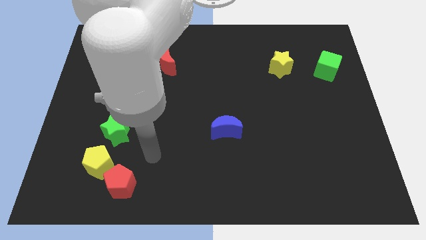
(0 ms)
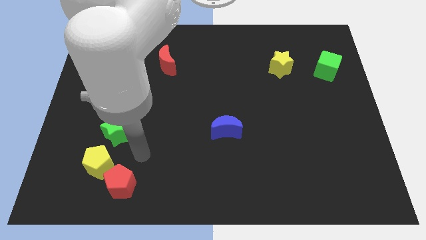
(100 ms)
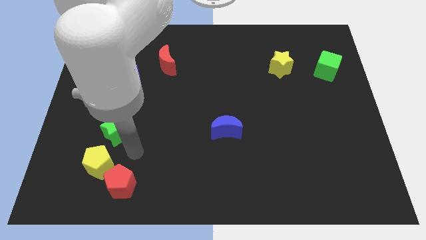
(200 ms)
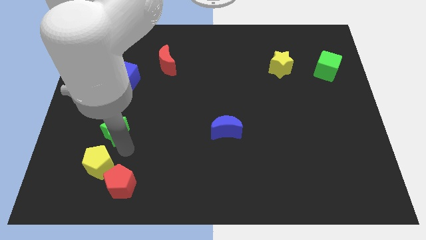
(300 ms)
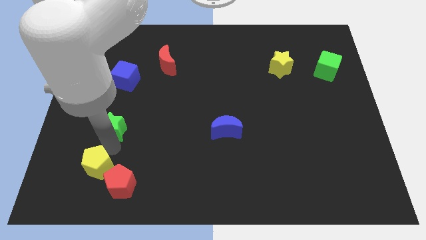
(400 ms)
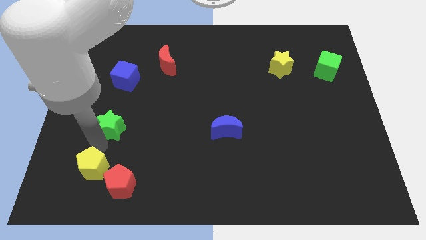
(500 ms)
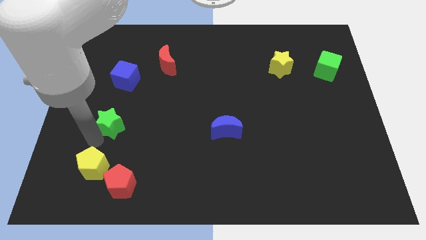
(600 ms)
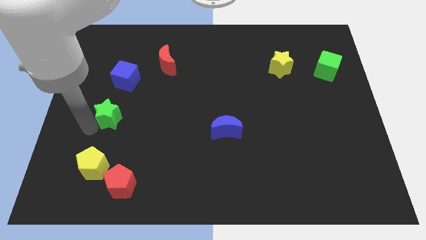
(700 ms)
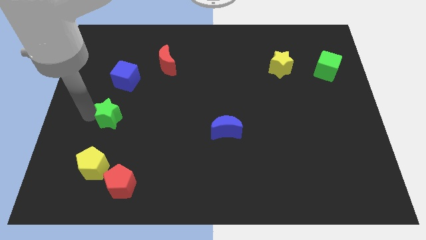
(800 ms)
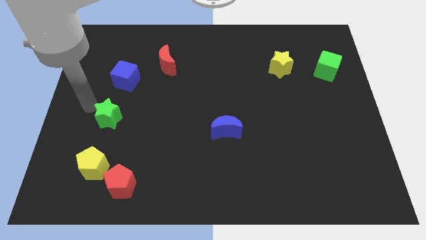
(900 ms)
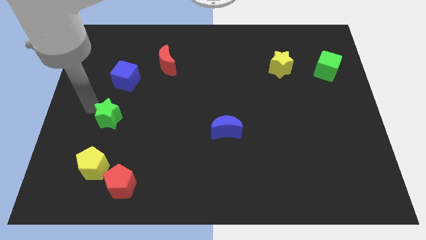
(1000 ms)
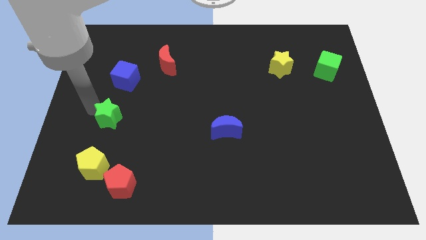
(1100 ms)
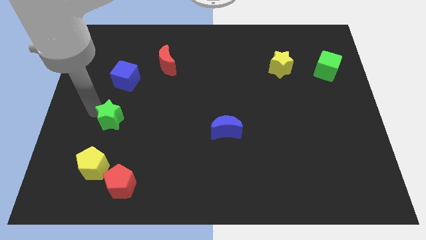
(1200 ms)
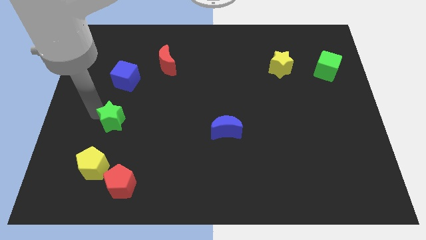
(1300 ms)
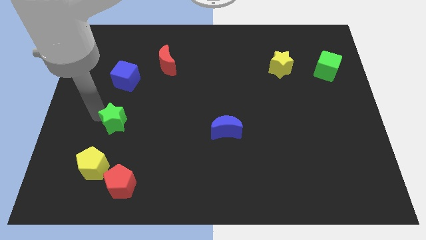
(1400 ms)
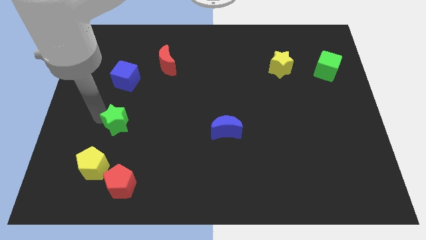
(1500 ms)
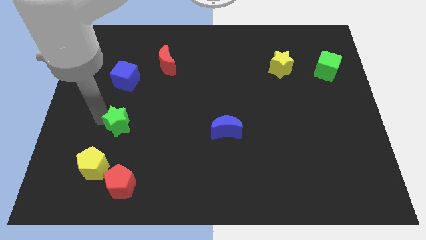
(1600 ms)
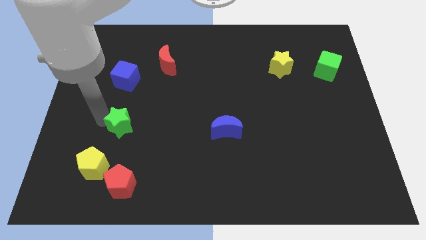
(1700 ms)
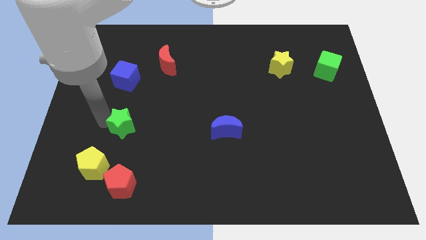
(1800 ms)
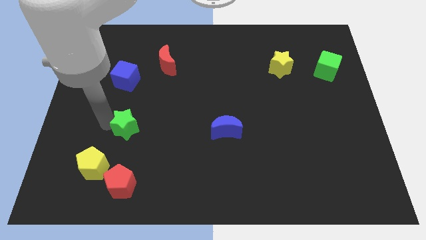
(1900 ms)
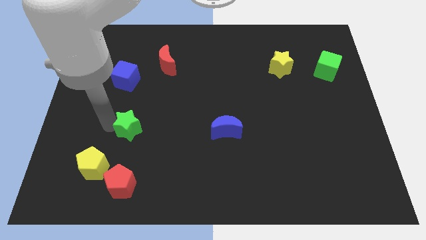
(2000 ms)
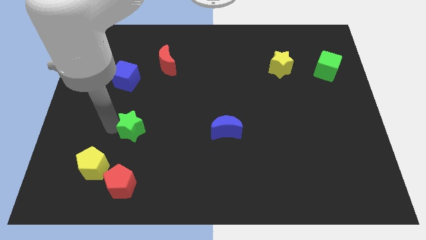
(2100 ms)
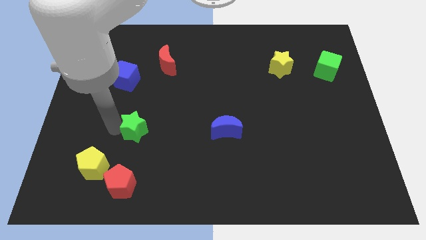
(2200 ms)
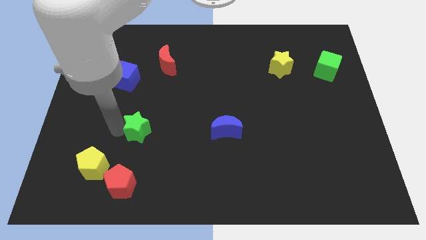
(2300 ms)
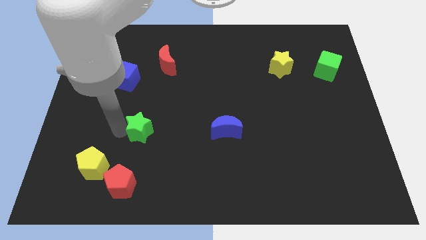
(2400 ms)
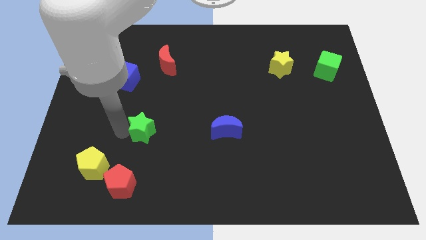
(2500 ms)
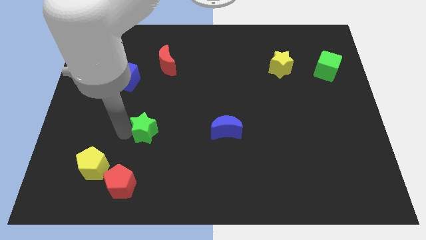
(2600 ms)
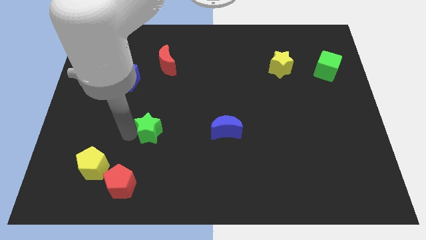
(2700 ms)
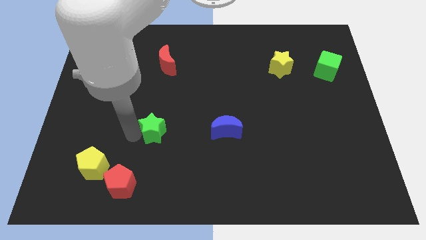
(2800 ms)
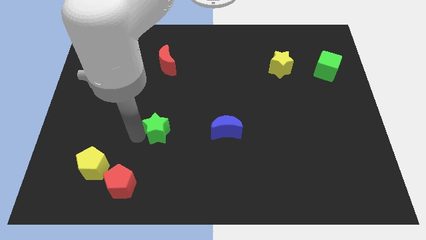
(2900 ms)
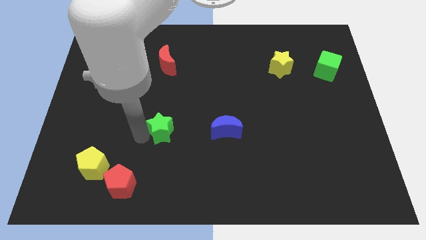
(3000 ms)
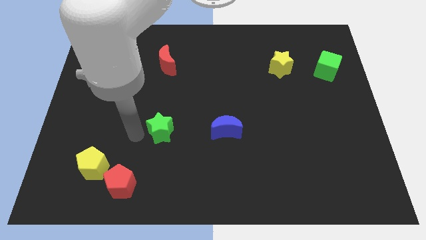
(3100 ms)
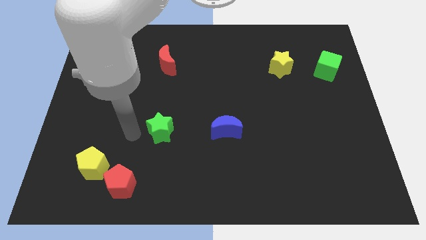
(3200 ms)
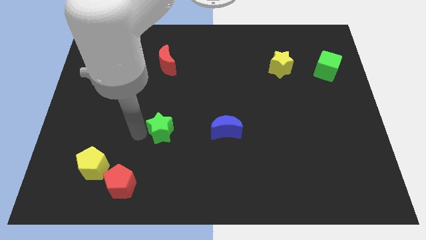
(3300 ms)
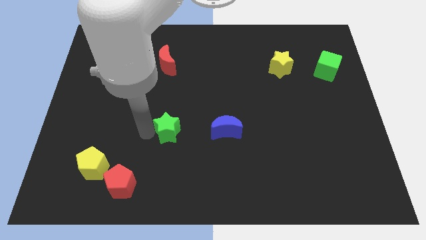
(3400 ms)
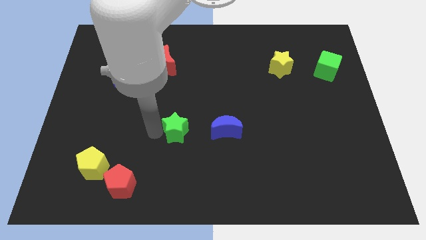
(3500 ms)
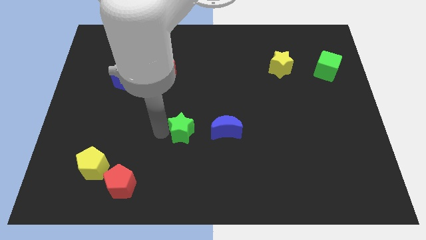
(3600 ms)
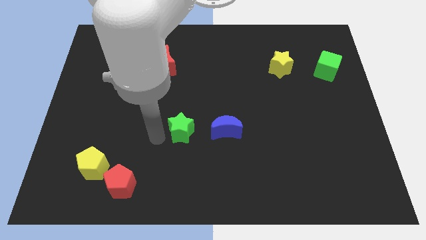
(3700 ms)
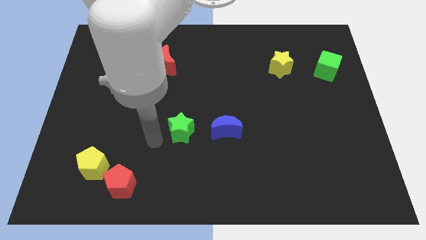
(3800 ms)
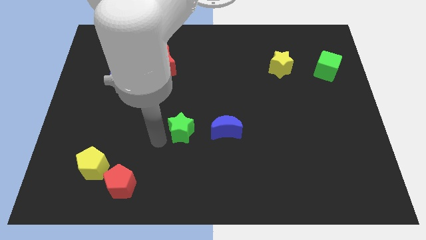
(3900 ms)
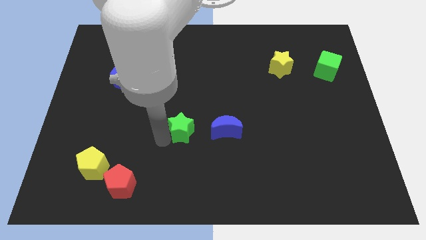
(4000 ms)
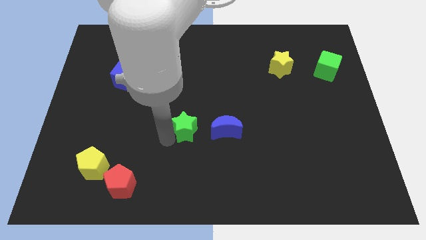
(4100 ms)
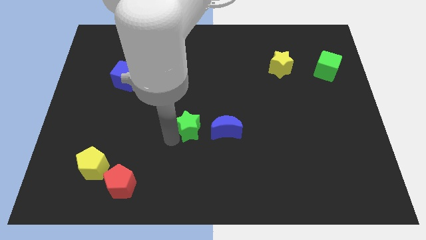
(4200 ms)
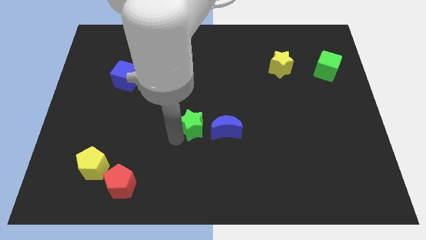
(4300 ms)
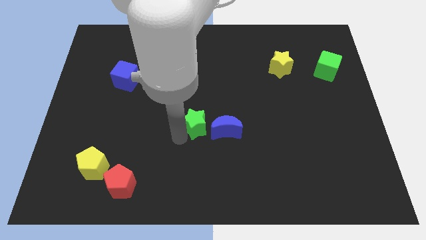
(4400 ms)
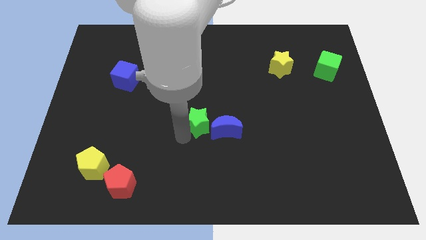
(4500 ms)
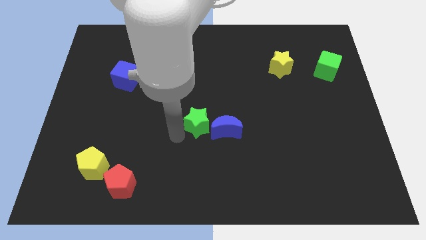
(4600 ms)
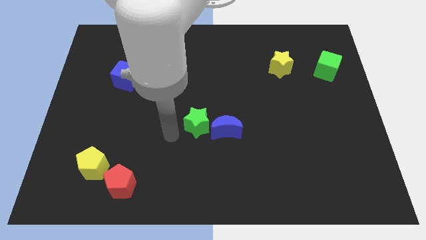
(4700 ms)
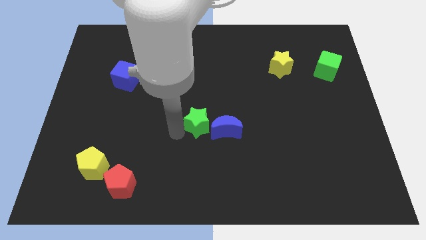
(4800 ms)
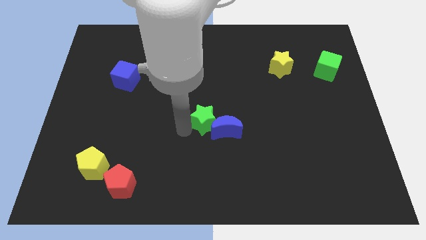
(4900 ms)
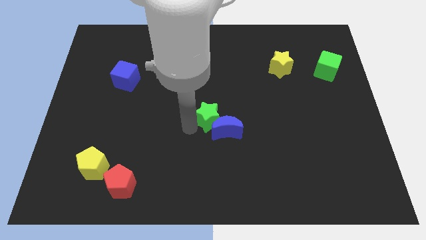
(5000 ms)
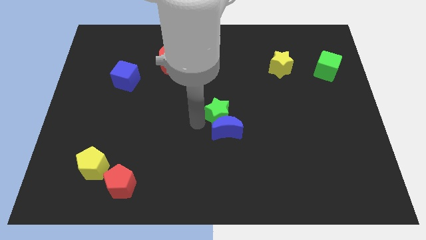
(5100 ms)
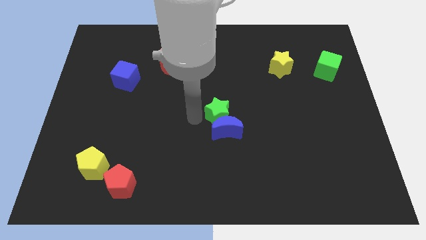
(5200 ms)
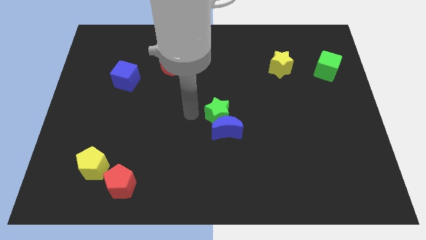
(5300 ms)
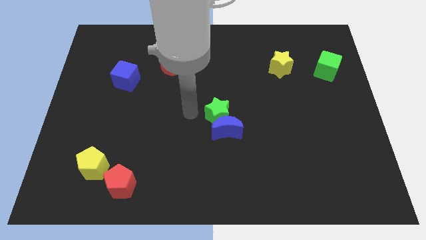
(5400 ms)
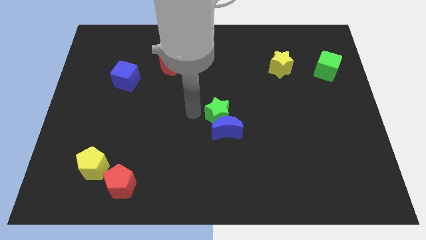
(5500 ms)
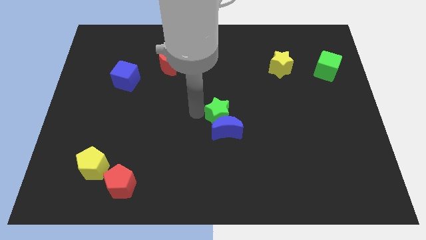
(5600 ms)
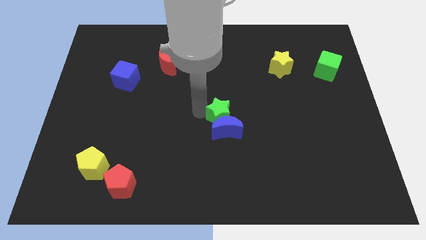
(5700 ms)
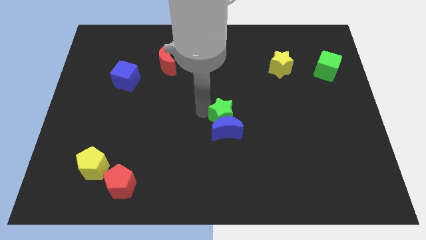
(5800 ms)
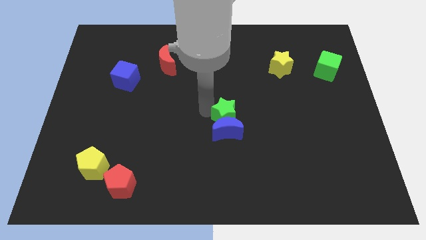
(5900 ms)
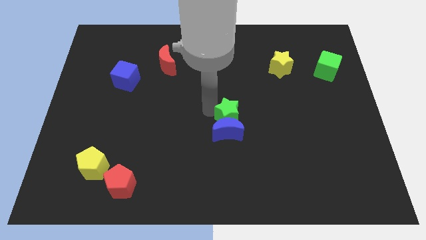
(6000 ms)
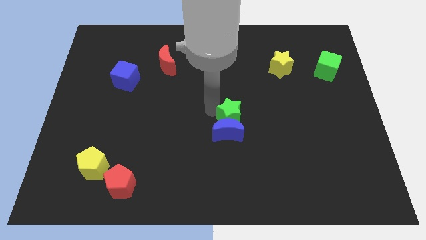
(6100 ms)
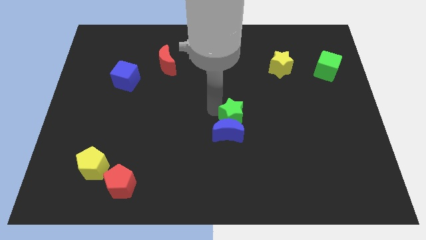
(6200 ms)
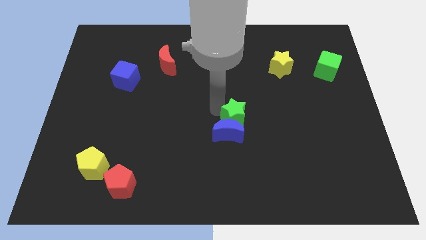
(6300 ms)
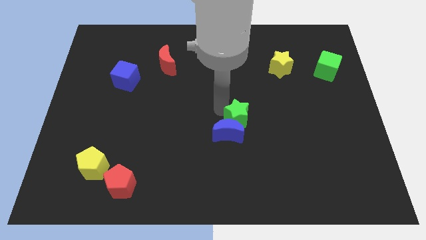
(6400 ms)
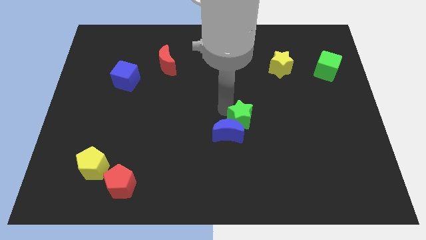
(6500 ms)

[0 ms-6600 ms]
put the green star right of the blue moon
